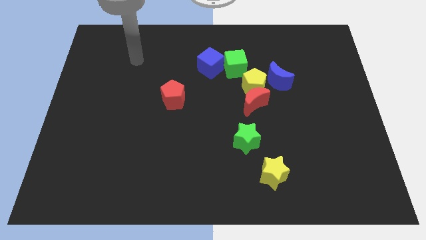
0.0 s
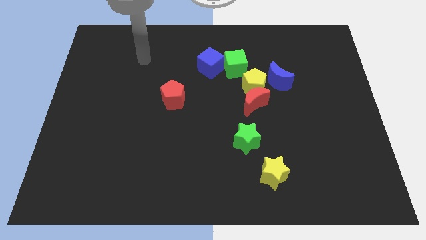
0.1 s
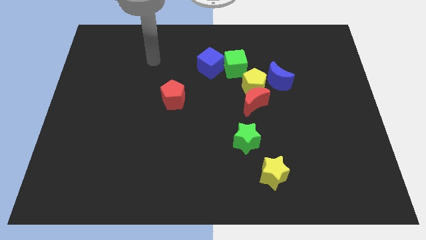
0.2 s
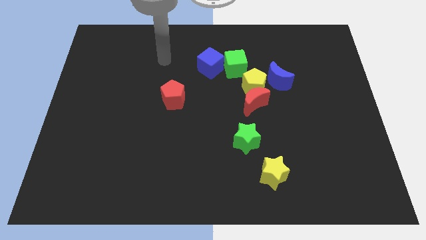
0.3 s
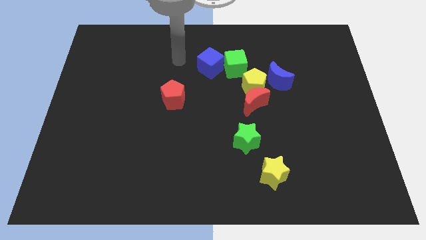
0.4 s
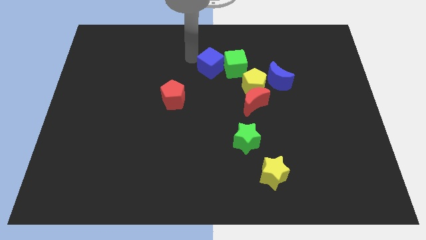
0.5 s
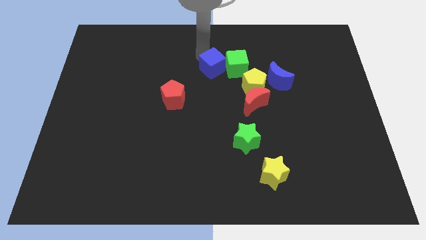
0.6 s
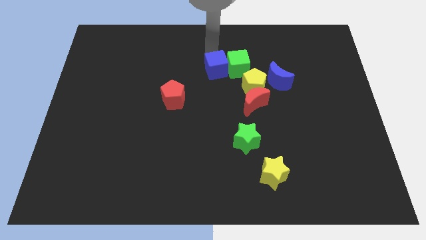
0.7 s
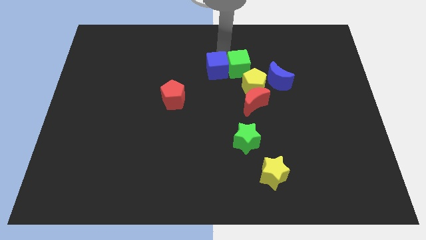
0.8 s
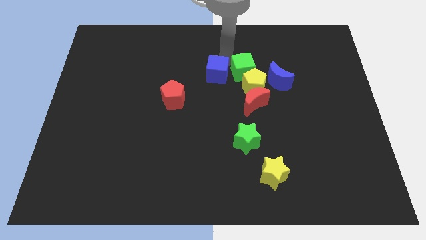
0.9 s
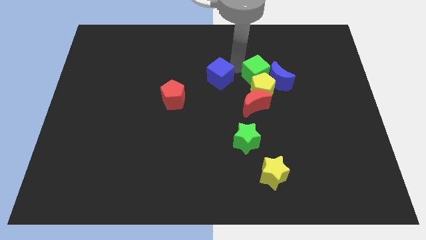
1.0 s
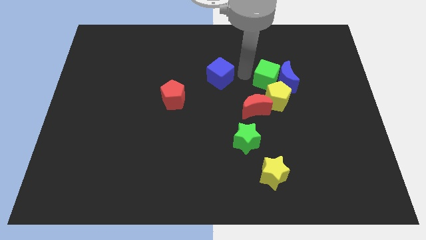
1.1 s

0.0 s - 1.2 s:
separate the blue cube from the green cube

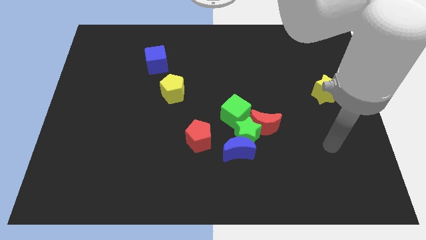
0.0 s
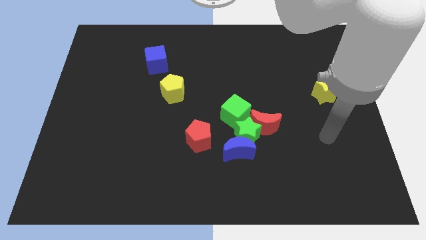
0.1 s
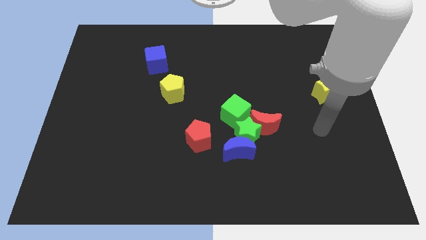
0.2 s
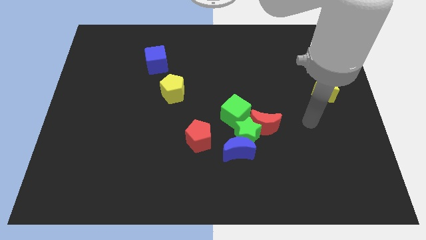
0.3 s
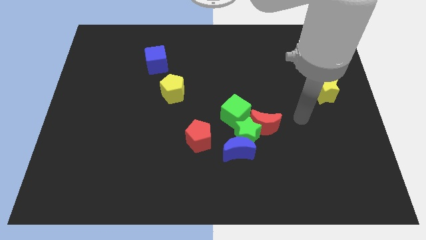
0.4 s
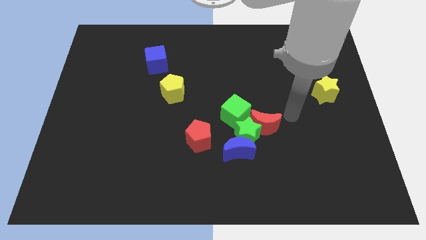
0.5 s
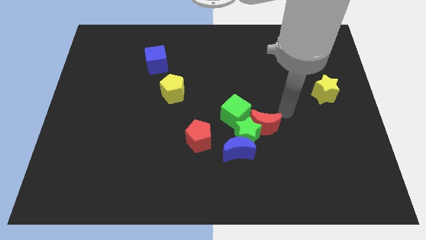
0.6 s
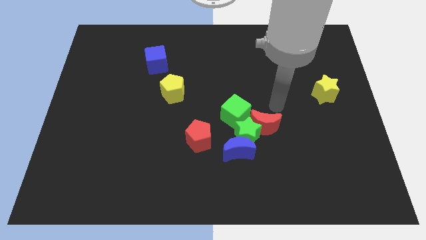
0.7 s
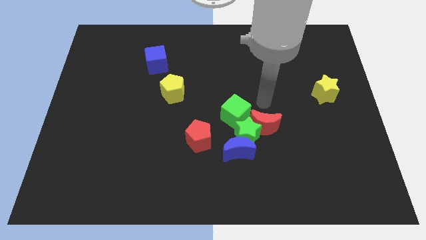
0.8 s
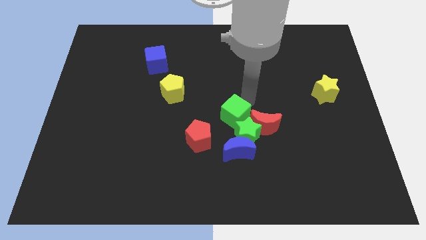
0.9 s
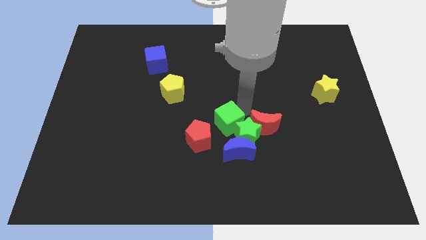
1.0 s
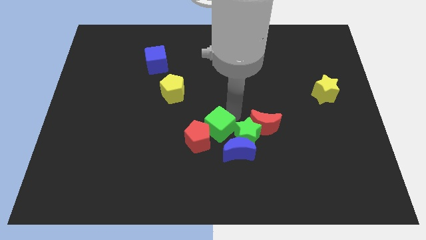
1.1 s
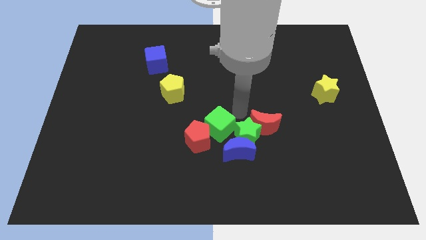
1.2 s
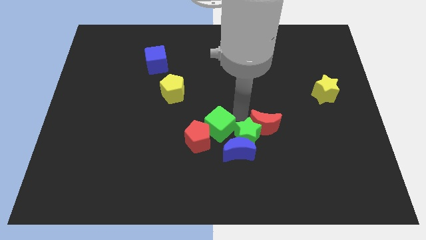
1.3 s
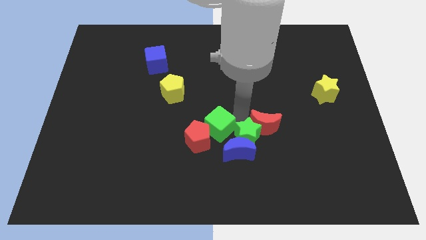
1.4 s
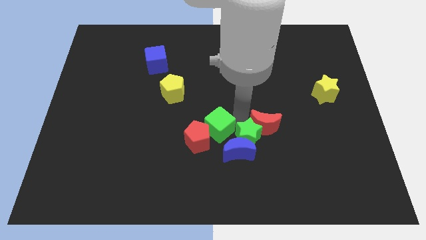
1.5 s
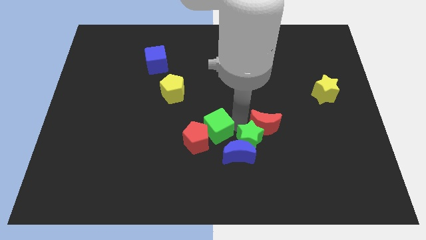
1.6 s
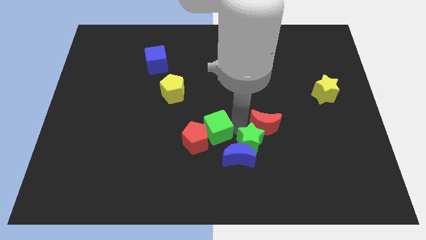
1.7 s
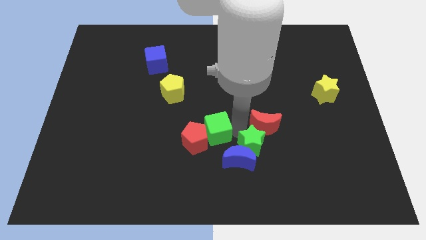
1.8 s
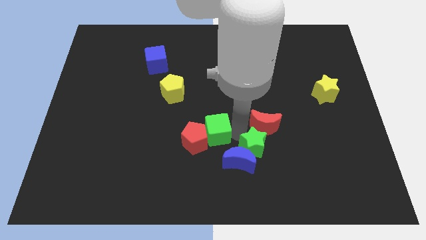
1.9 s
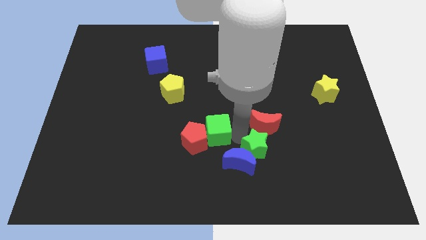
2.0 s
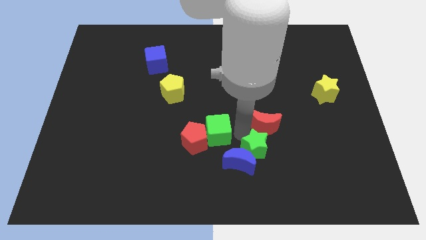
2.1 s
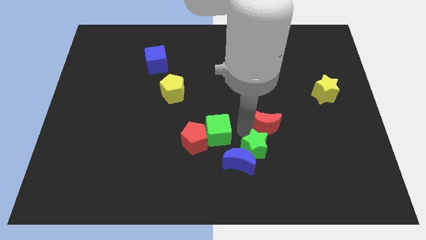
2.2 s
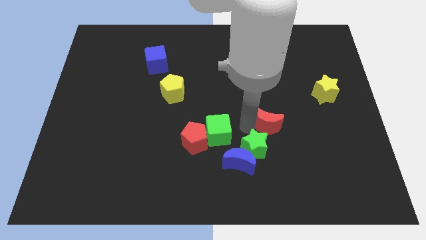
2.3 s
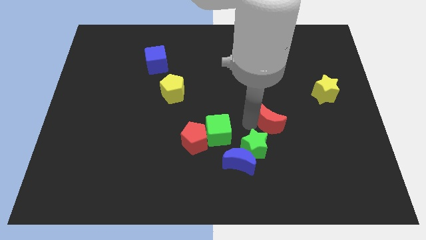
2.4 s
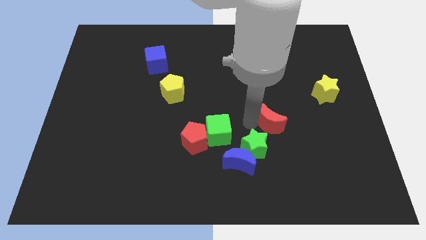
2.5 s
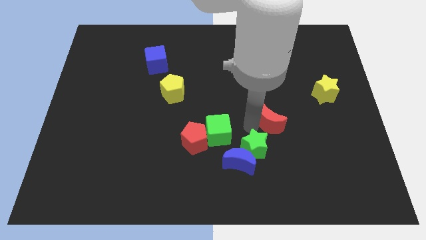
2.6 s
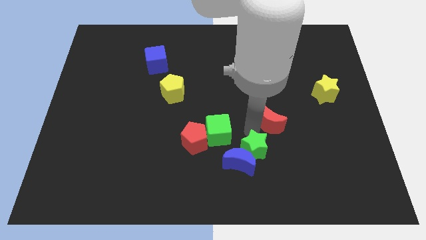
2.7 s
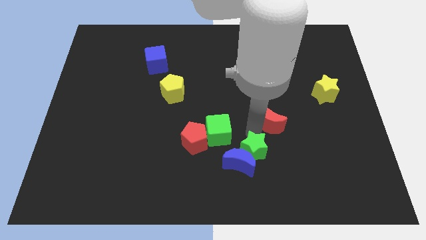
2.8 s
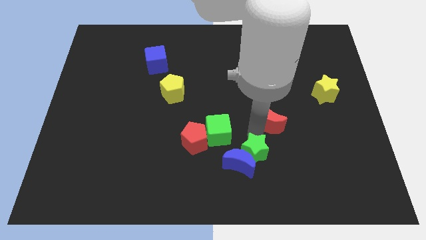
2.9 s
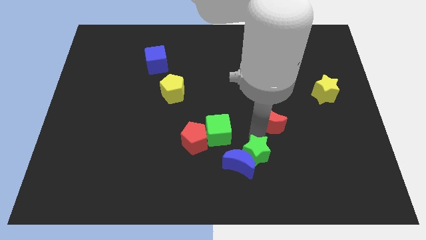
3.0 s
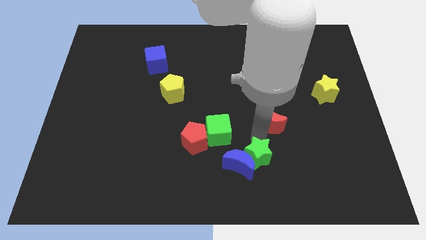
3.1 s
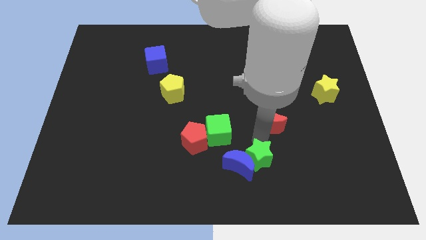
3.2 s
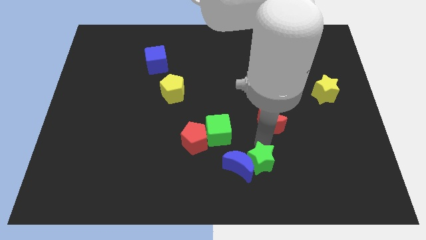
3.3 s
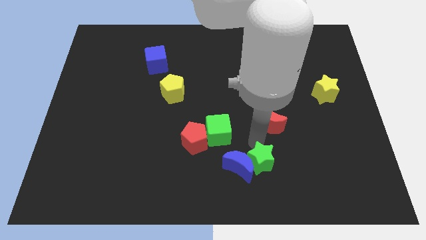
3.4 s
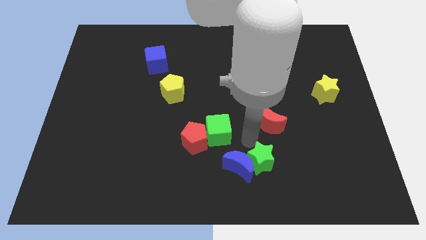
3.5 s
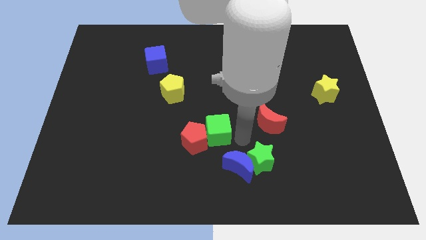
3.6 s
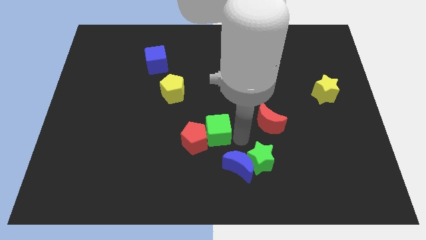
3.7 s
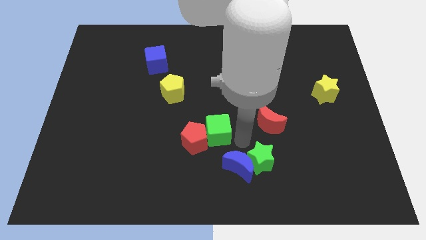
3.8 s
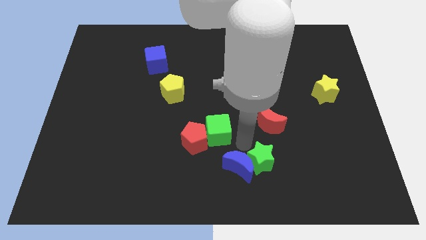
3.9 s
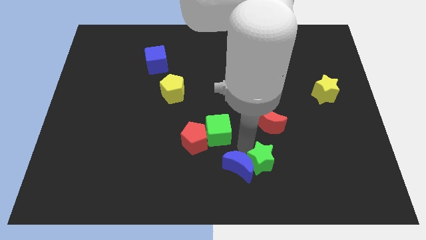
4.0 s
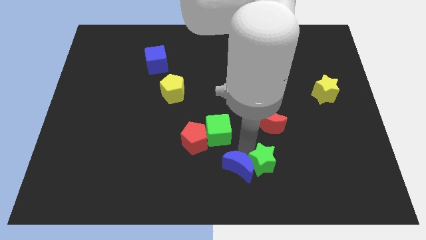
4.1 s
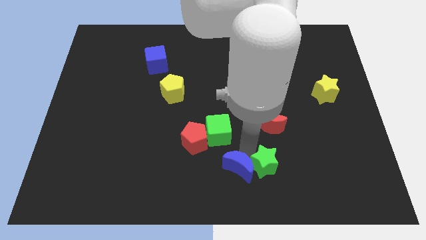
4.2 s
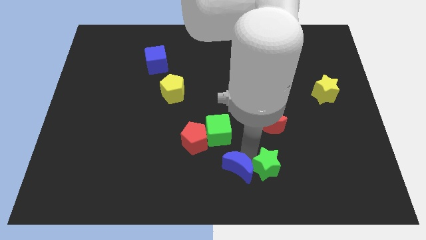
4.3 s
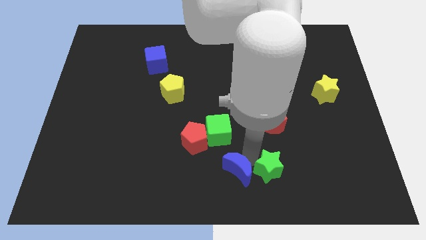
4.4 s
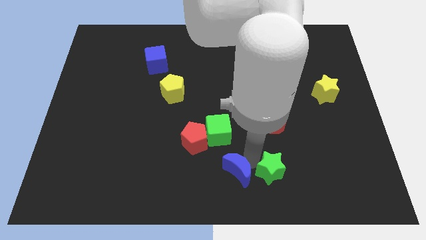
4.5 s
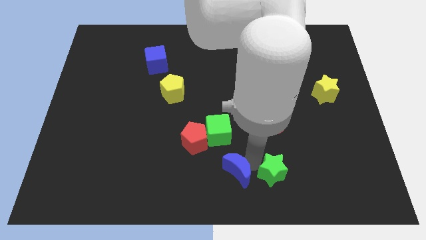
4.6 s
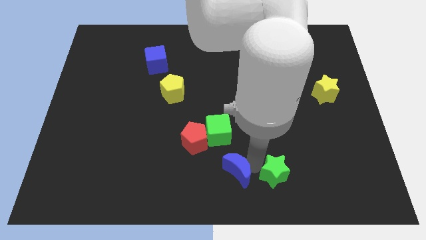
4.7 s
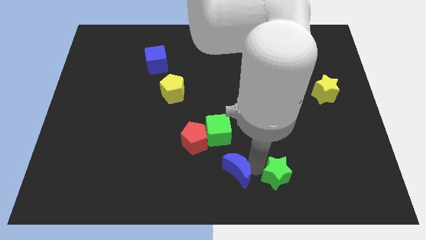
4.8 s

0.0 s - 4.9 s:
pull the green star apart from the clump

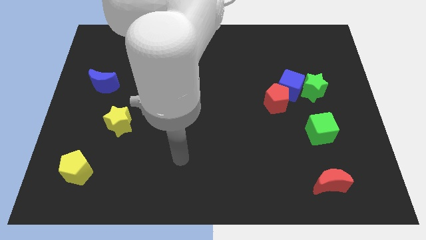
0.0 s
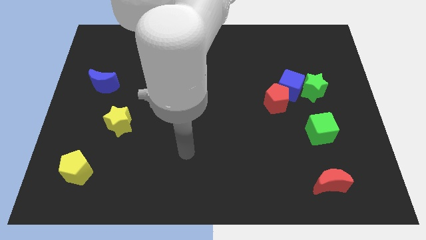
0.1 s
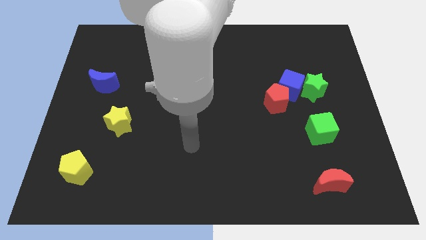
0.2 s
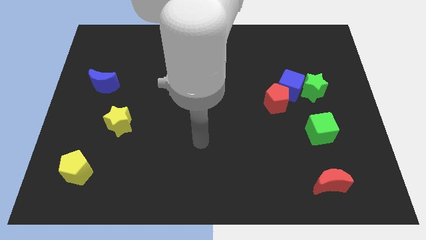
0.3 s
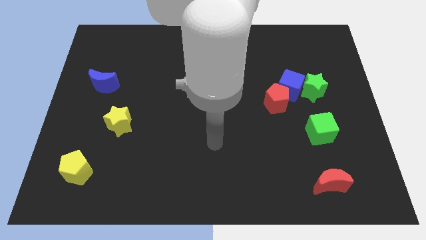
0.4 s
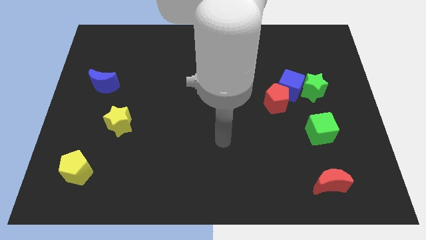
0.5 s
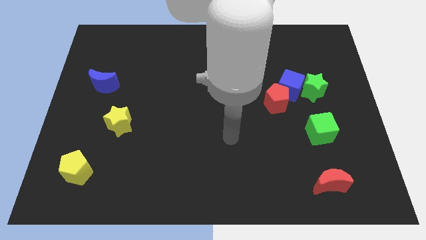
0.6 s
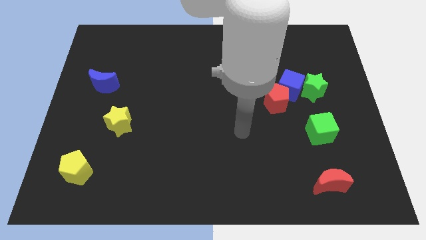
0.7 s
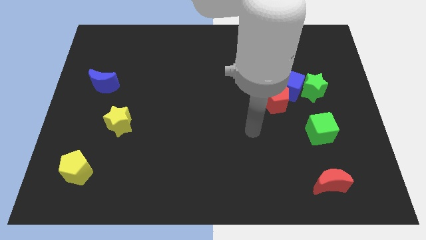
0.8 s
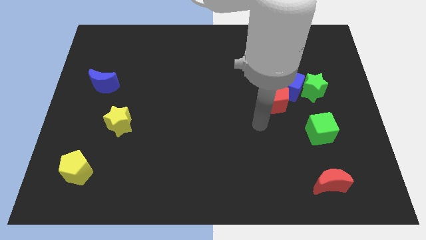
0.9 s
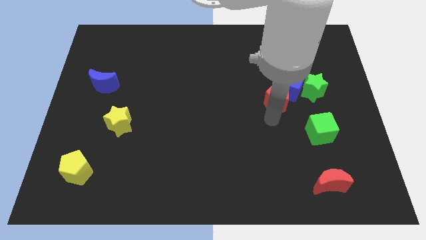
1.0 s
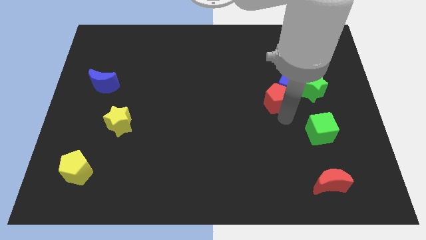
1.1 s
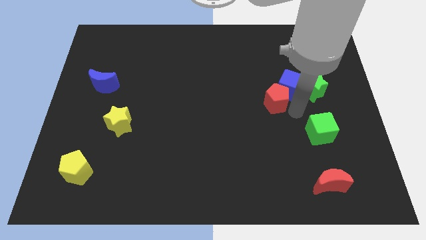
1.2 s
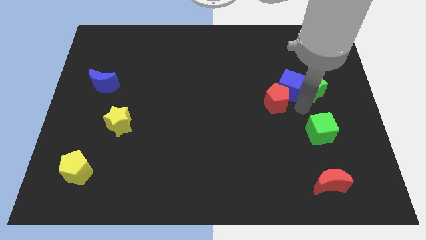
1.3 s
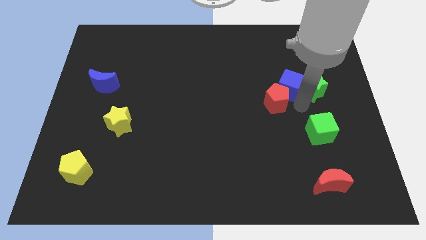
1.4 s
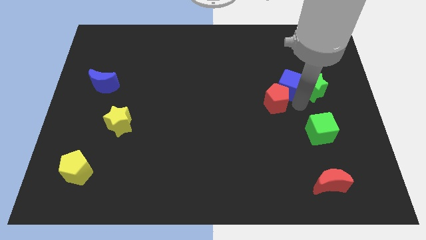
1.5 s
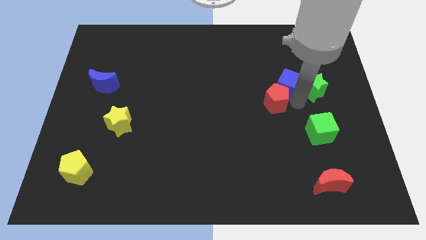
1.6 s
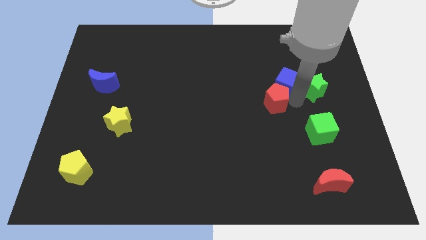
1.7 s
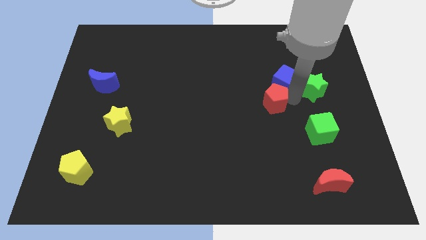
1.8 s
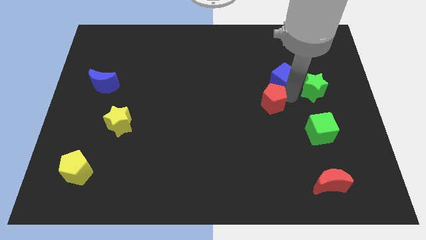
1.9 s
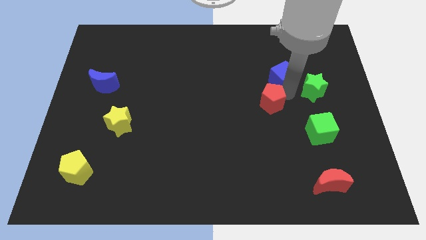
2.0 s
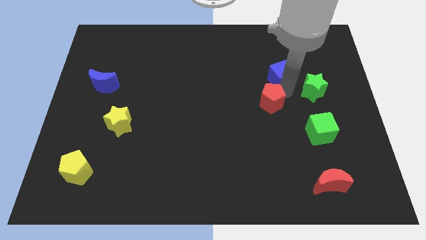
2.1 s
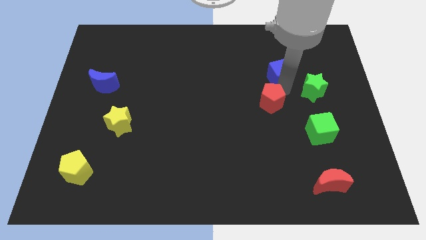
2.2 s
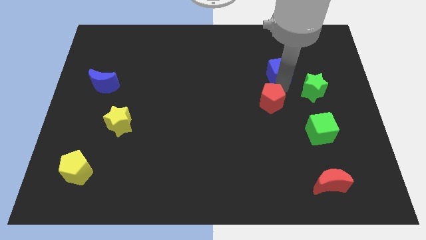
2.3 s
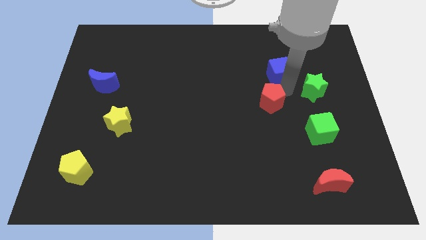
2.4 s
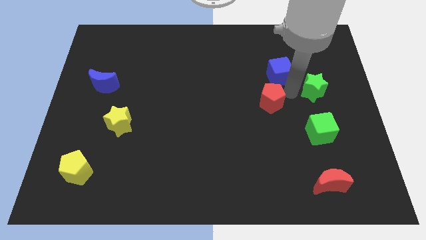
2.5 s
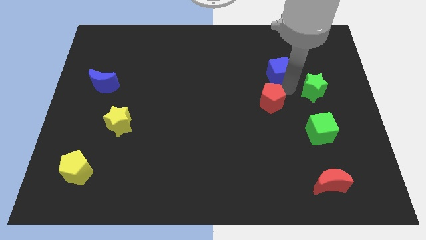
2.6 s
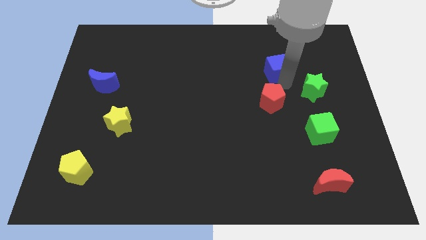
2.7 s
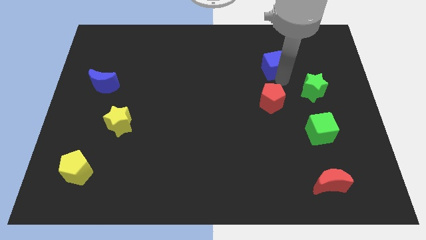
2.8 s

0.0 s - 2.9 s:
pull the blue cube apart from the red pentagon and green star

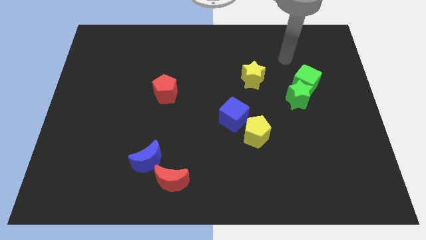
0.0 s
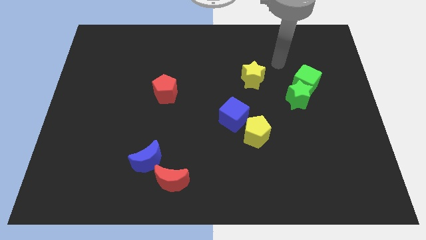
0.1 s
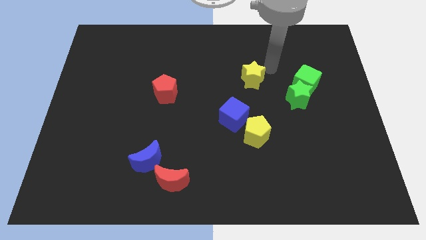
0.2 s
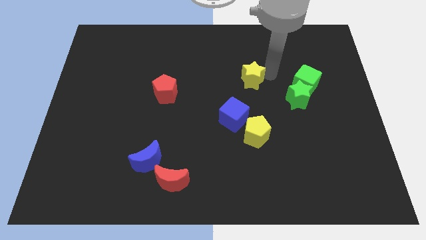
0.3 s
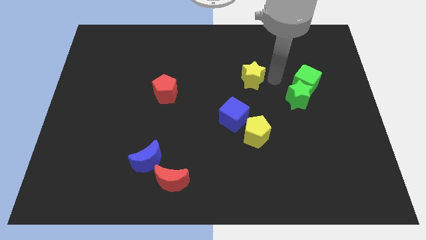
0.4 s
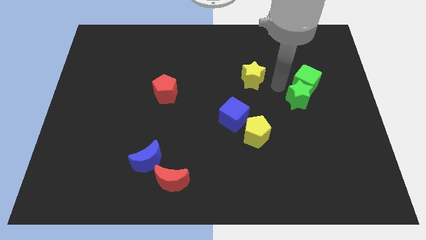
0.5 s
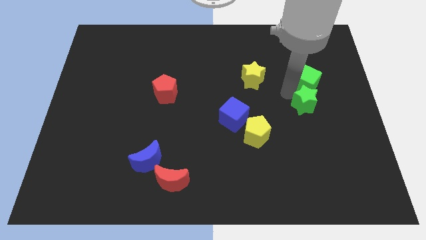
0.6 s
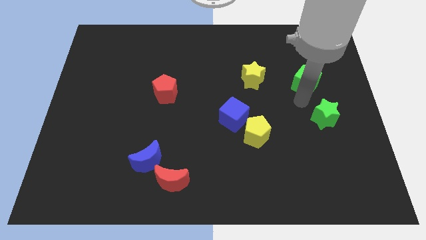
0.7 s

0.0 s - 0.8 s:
move the green cube away from the green star
